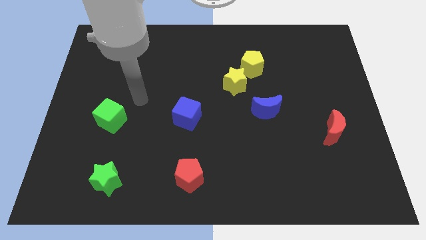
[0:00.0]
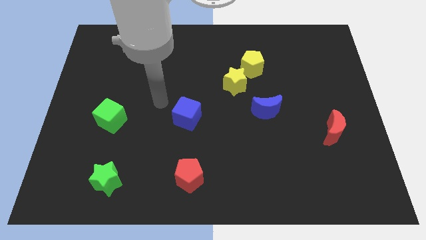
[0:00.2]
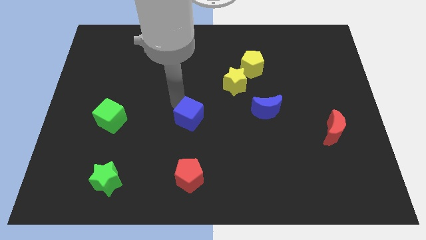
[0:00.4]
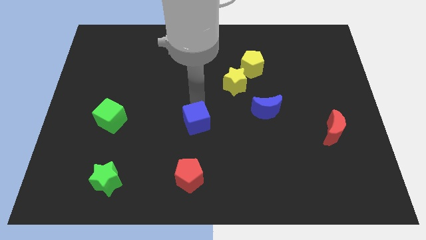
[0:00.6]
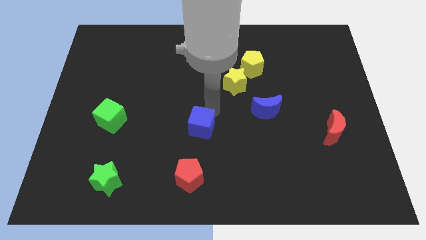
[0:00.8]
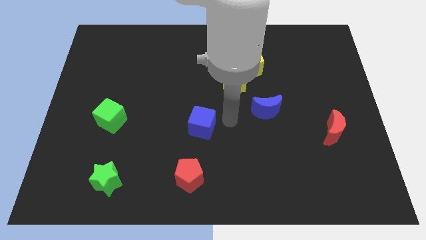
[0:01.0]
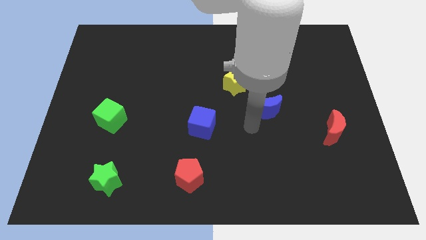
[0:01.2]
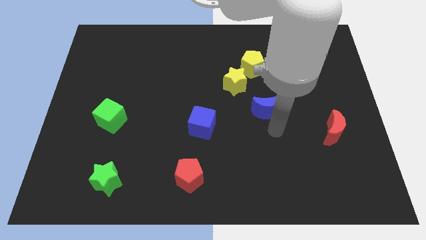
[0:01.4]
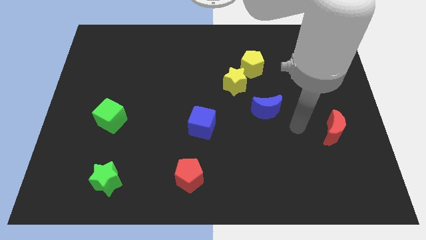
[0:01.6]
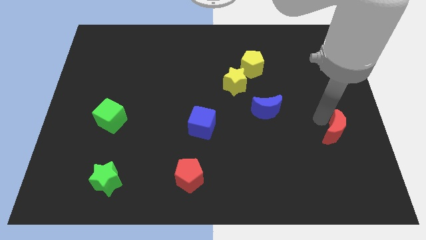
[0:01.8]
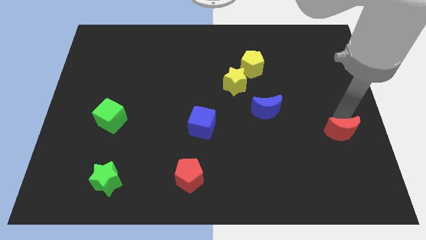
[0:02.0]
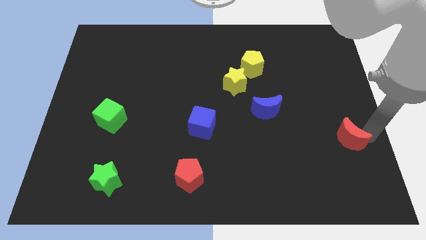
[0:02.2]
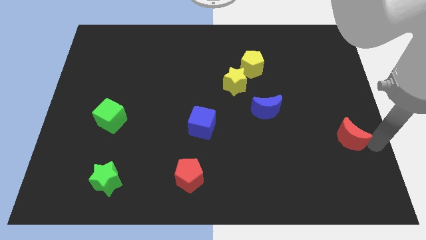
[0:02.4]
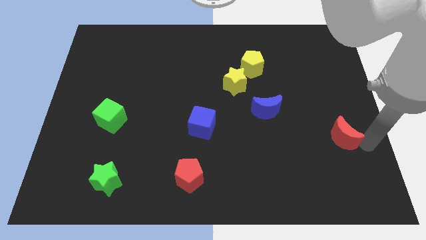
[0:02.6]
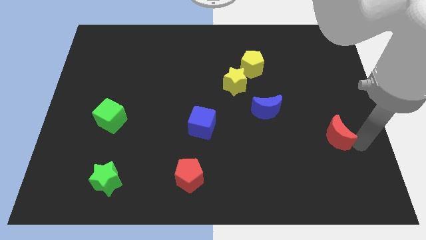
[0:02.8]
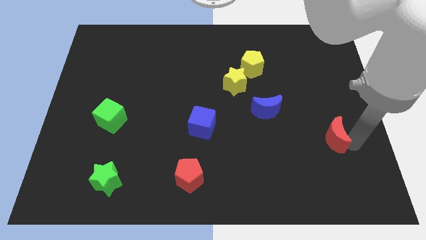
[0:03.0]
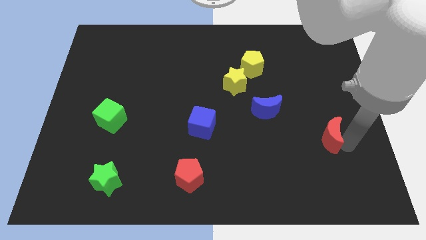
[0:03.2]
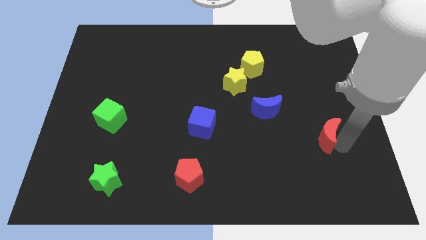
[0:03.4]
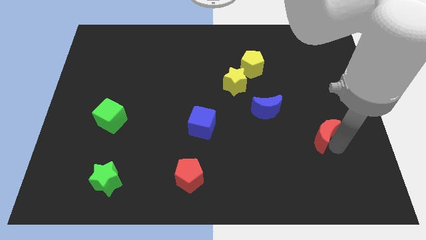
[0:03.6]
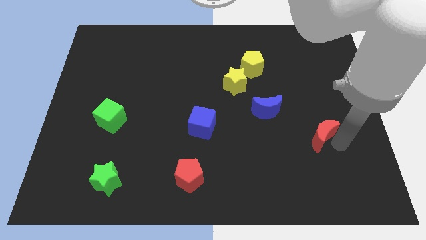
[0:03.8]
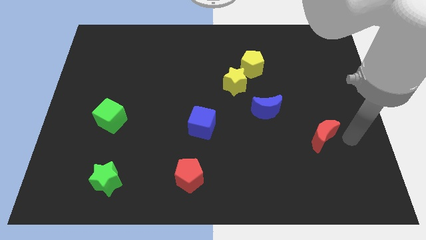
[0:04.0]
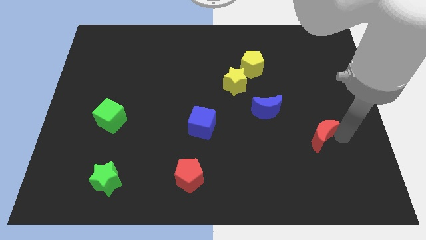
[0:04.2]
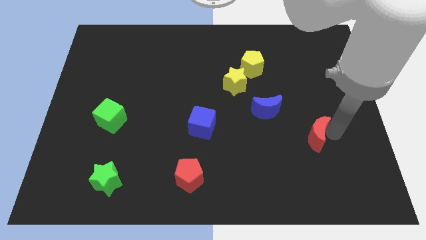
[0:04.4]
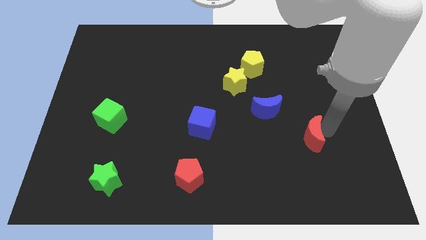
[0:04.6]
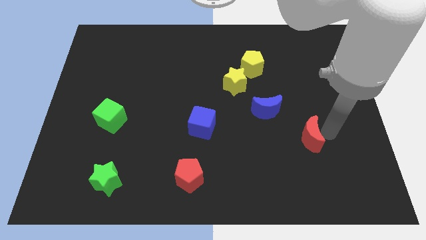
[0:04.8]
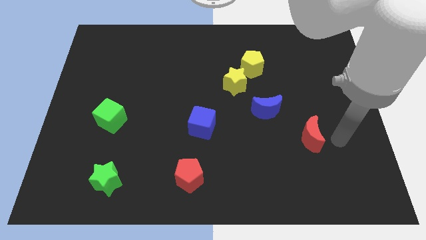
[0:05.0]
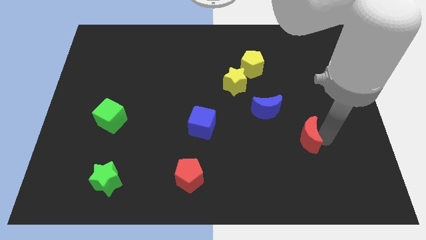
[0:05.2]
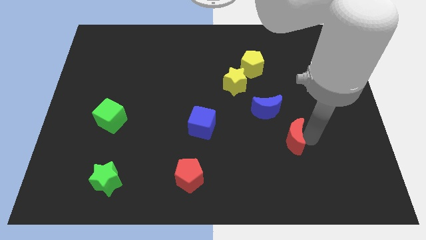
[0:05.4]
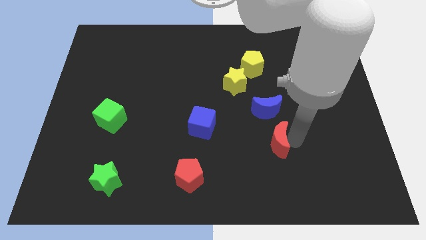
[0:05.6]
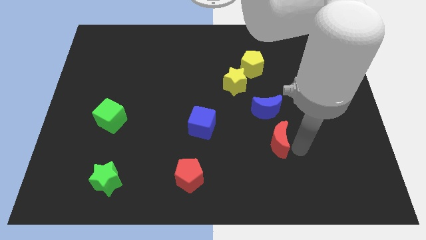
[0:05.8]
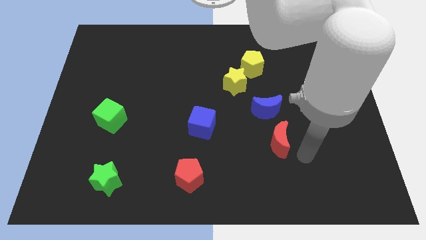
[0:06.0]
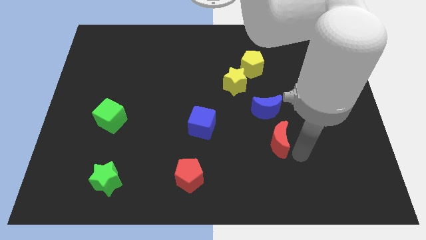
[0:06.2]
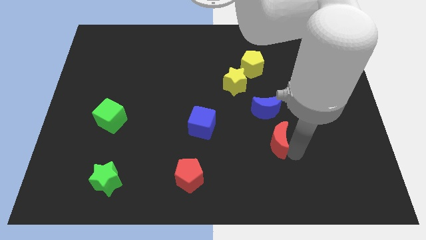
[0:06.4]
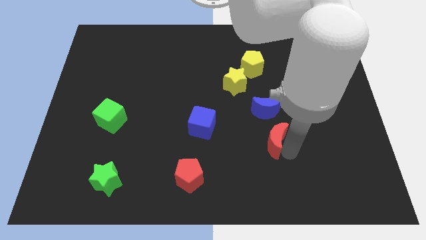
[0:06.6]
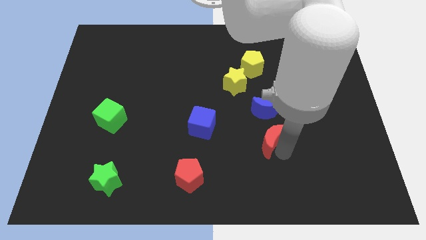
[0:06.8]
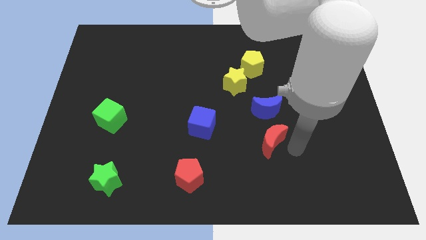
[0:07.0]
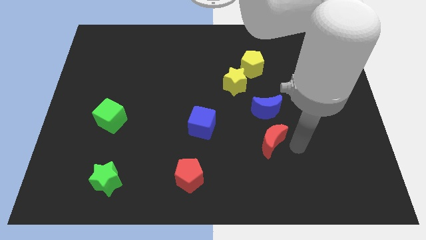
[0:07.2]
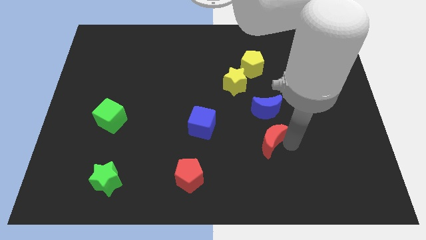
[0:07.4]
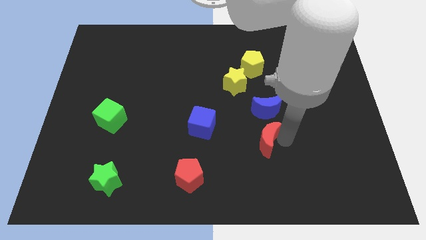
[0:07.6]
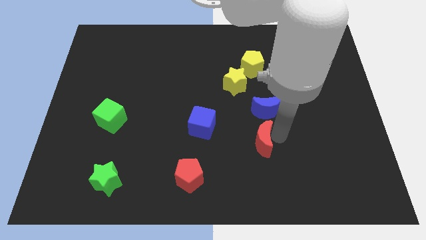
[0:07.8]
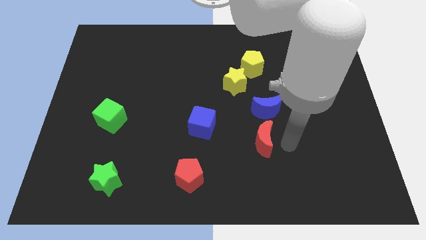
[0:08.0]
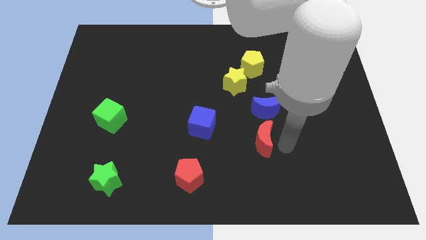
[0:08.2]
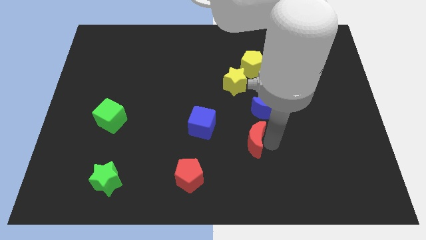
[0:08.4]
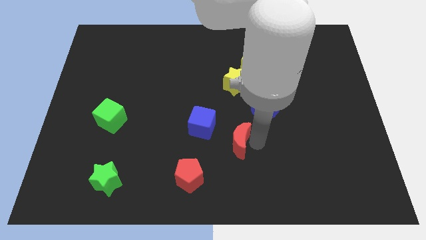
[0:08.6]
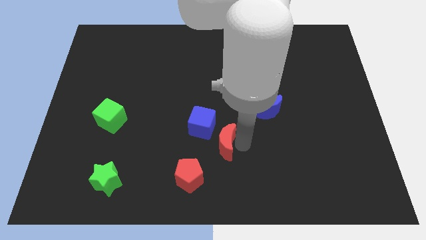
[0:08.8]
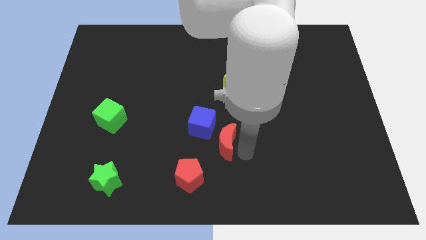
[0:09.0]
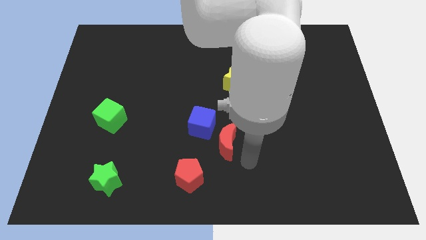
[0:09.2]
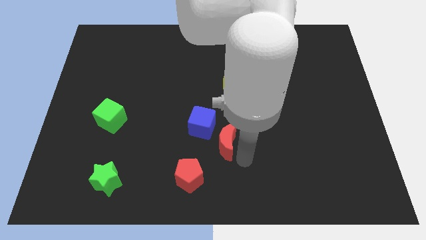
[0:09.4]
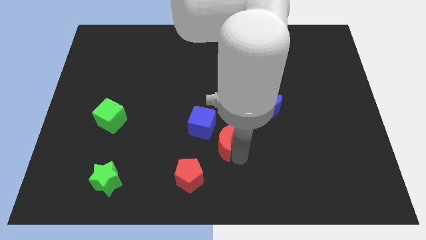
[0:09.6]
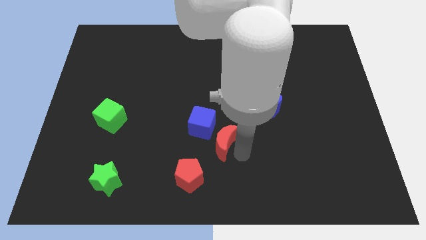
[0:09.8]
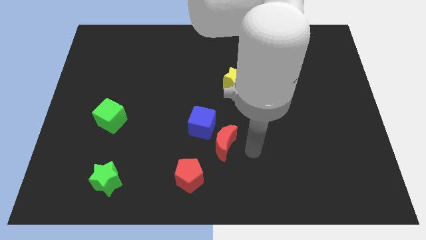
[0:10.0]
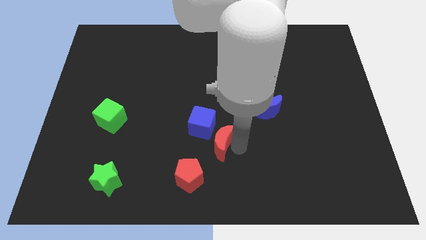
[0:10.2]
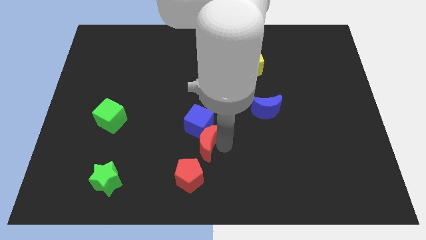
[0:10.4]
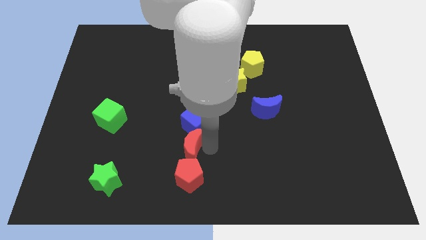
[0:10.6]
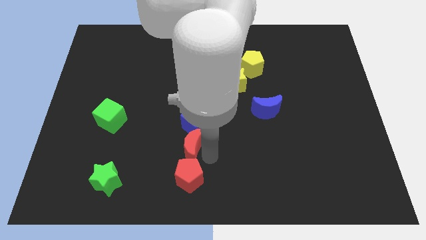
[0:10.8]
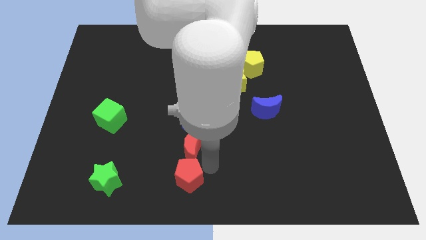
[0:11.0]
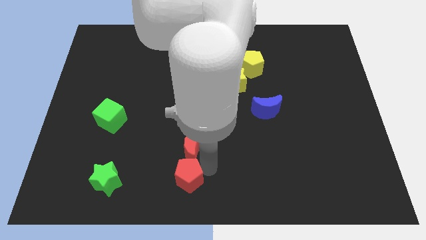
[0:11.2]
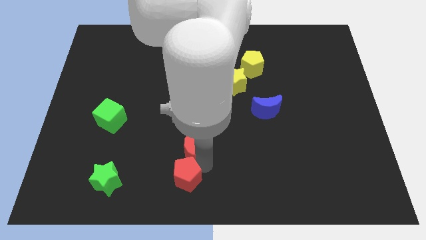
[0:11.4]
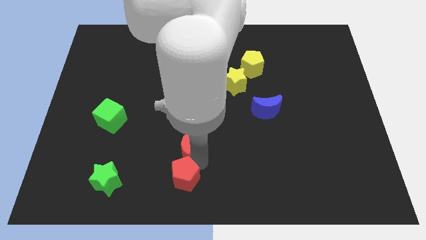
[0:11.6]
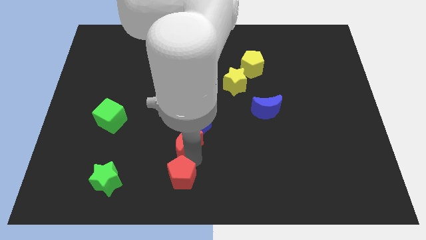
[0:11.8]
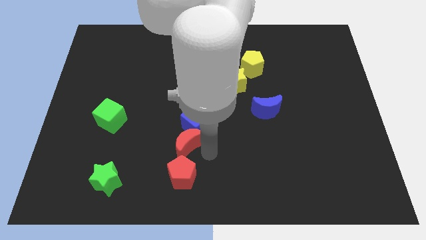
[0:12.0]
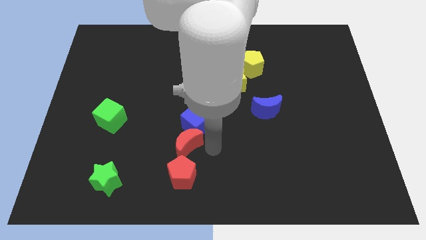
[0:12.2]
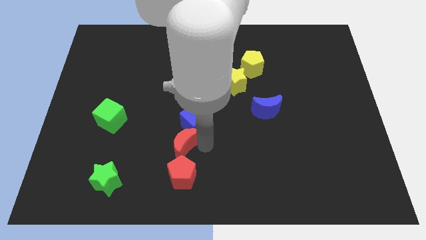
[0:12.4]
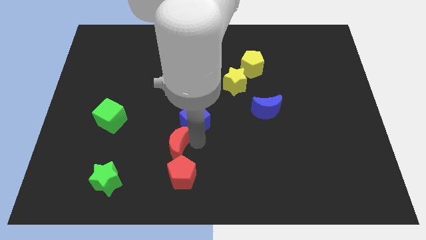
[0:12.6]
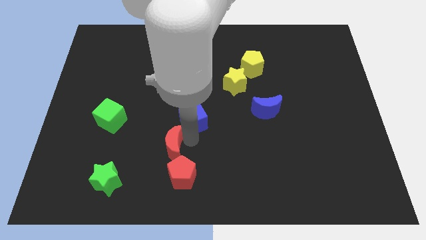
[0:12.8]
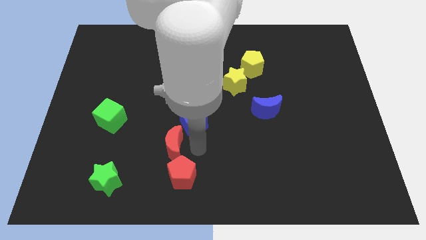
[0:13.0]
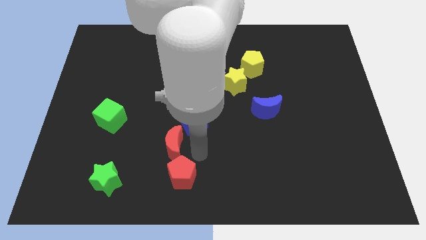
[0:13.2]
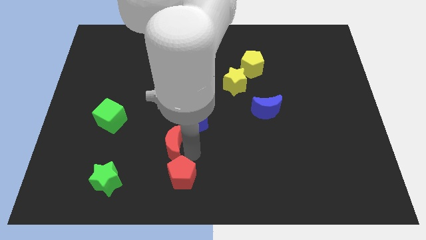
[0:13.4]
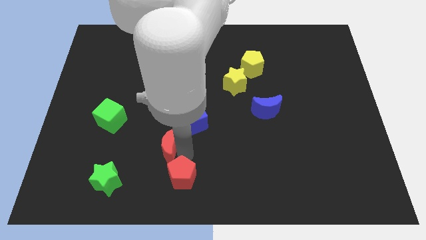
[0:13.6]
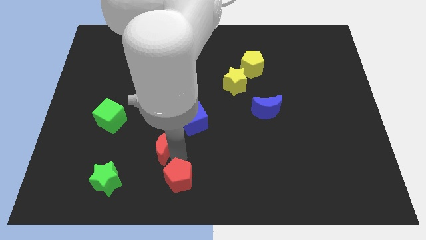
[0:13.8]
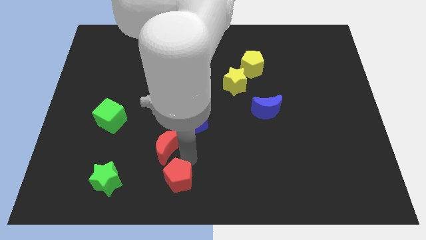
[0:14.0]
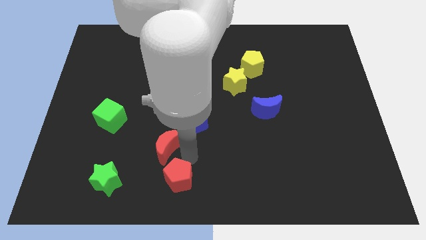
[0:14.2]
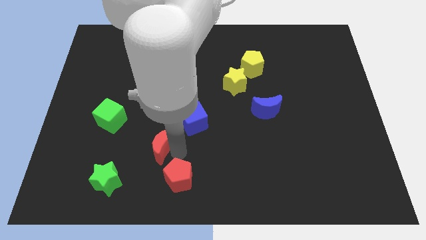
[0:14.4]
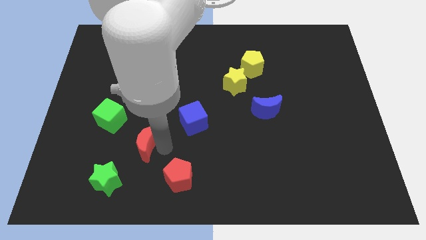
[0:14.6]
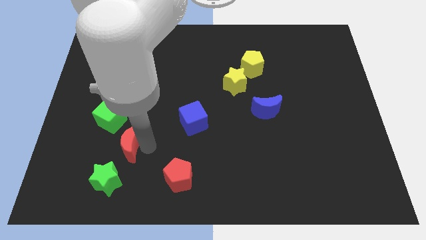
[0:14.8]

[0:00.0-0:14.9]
put the red moon to the top of the green star
